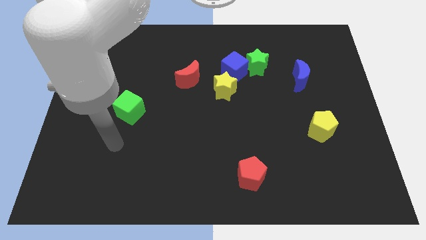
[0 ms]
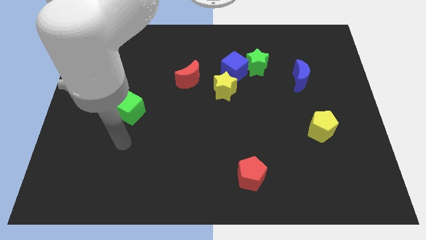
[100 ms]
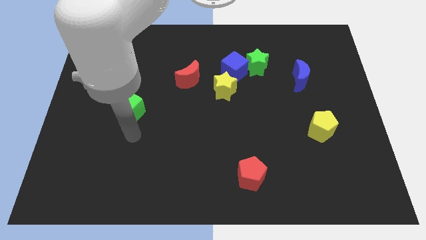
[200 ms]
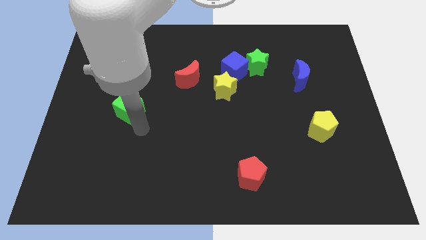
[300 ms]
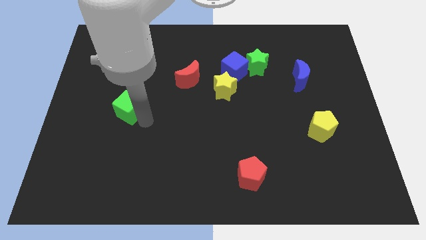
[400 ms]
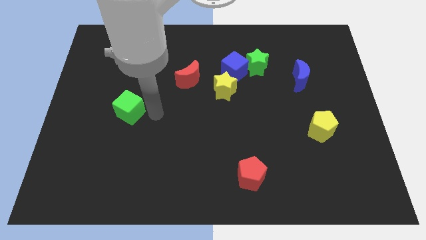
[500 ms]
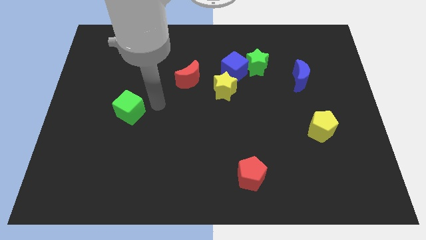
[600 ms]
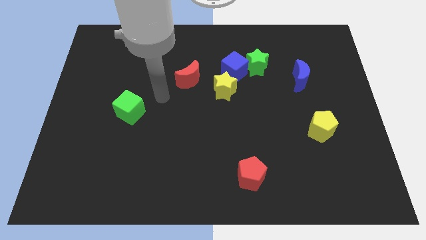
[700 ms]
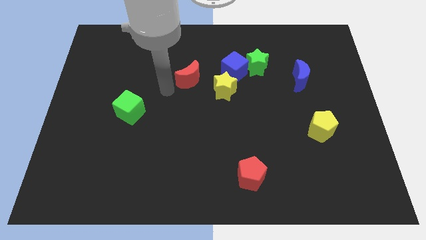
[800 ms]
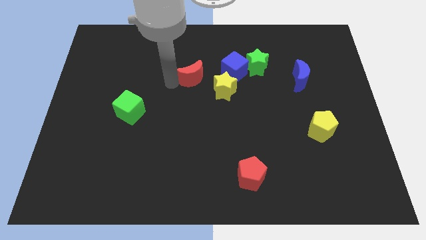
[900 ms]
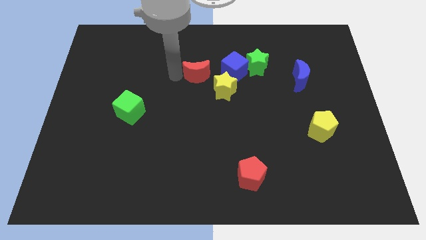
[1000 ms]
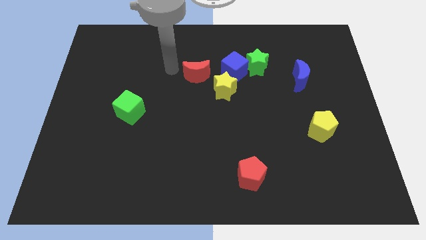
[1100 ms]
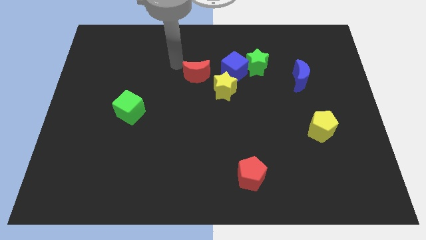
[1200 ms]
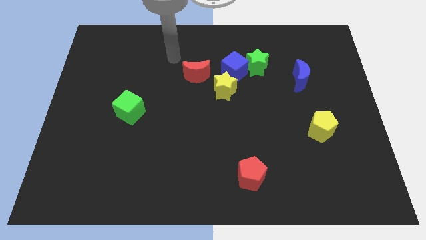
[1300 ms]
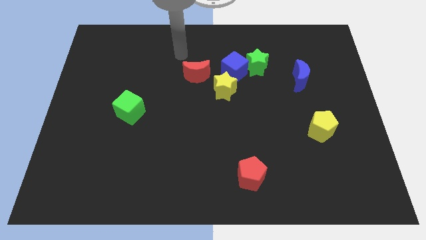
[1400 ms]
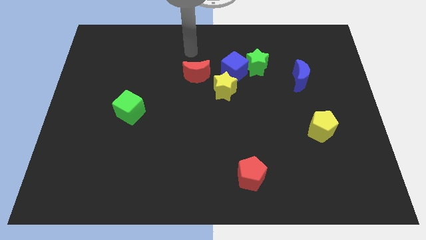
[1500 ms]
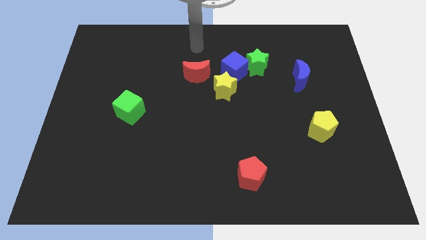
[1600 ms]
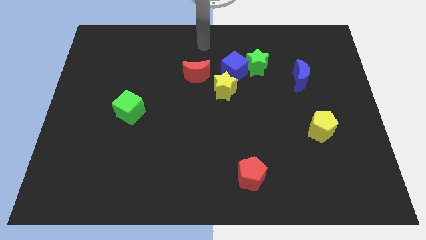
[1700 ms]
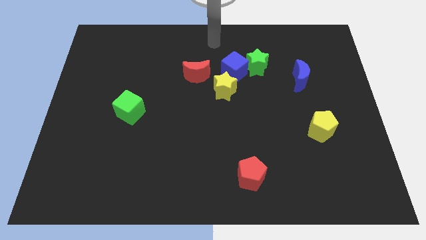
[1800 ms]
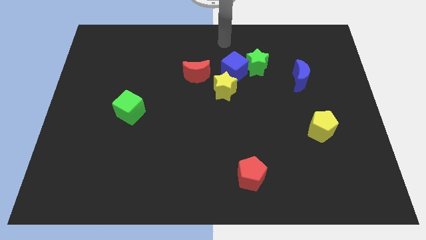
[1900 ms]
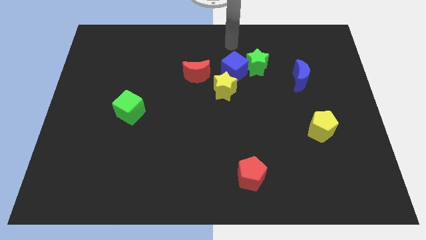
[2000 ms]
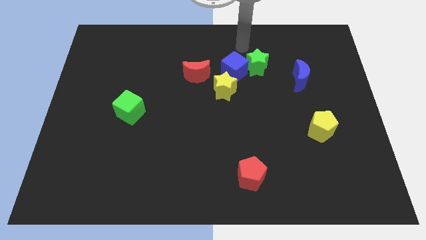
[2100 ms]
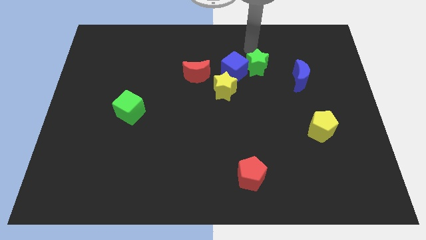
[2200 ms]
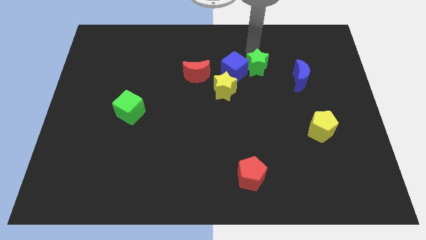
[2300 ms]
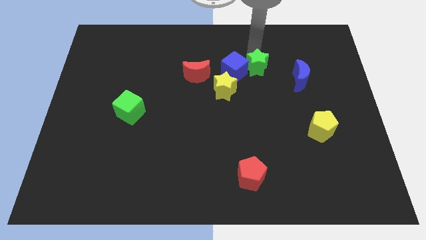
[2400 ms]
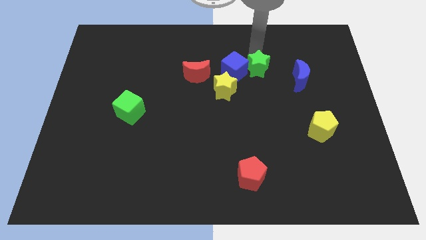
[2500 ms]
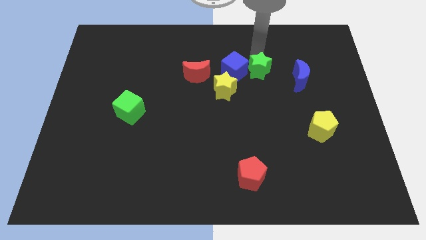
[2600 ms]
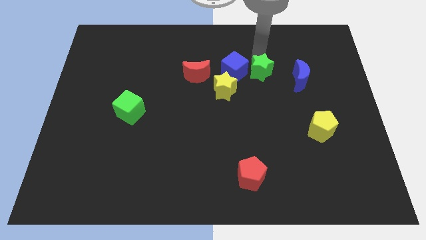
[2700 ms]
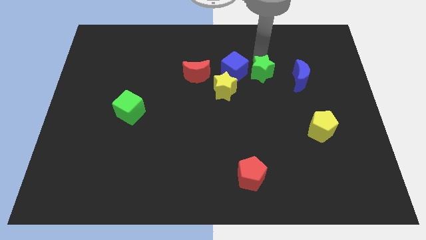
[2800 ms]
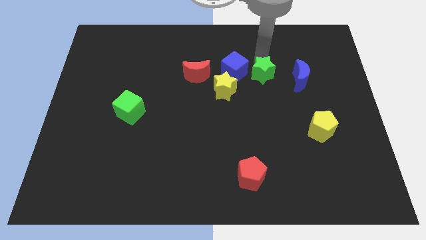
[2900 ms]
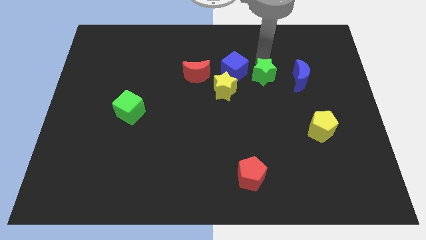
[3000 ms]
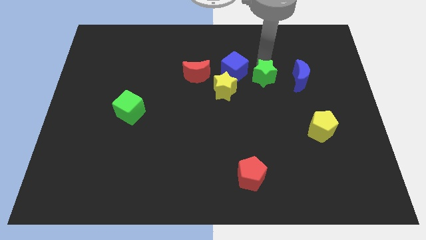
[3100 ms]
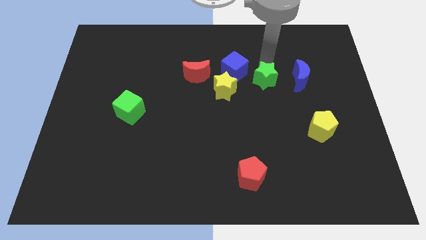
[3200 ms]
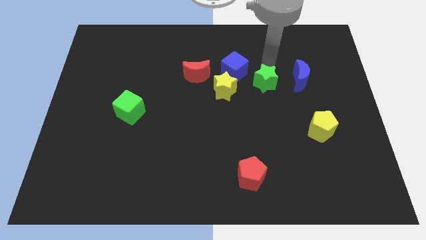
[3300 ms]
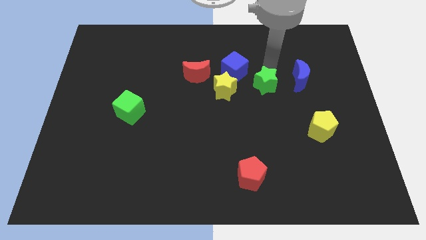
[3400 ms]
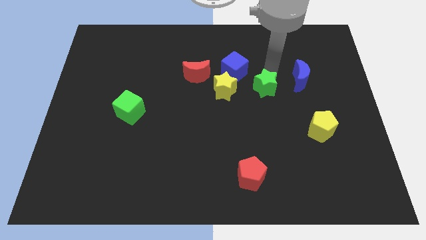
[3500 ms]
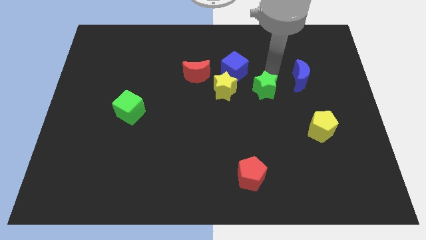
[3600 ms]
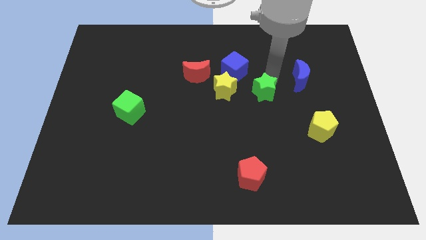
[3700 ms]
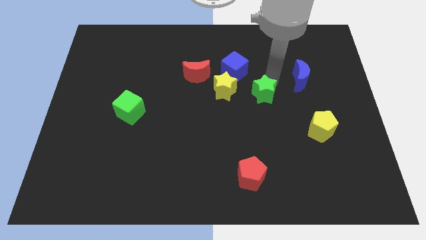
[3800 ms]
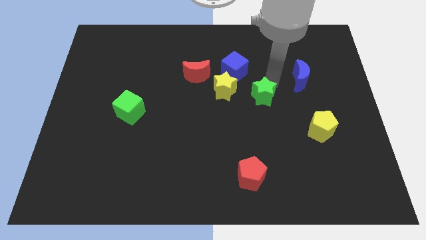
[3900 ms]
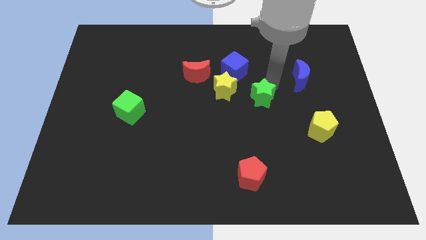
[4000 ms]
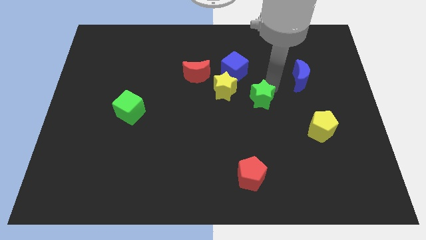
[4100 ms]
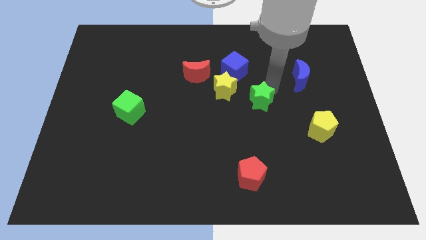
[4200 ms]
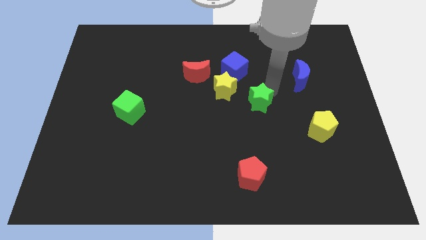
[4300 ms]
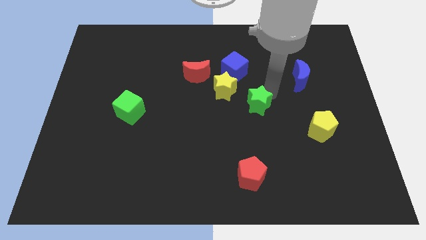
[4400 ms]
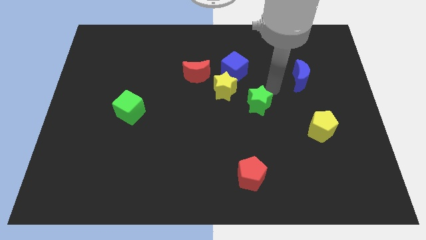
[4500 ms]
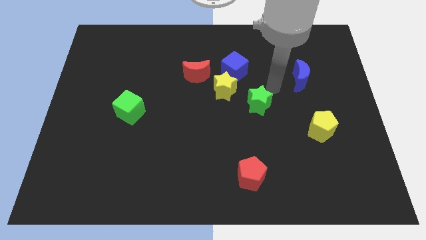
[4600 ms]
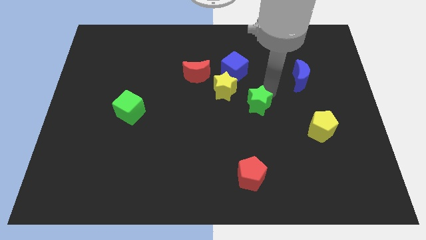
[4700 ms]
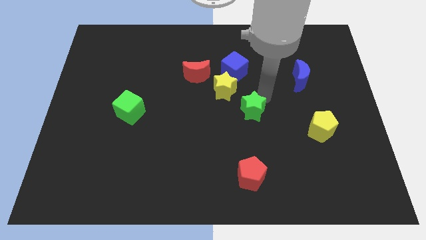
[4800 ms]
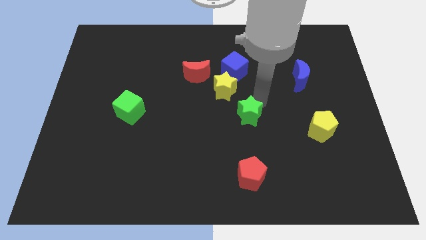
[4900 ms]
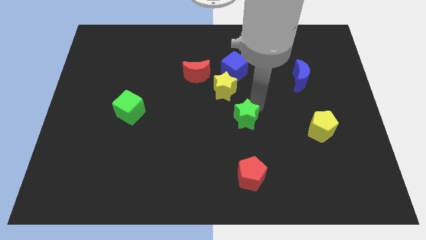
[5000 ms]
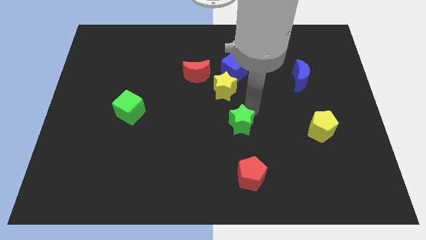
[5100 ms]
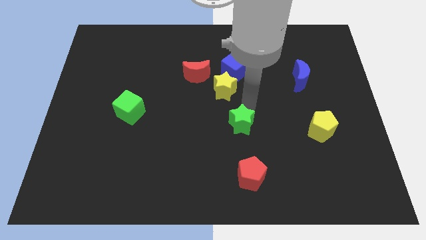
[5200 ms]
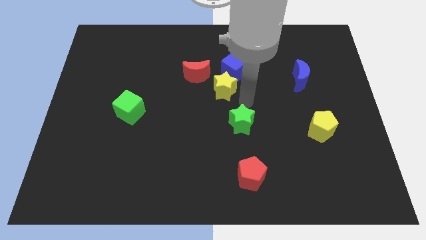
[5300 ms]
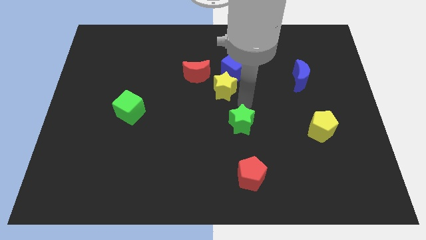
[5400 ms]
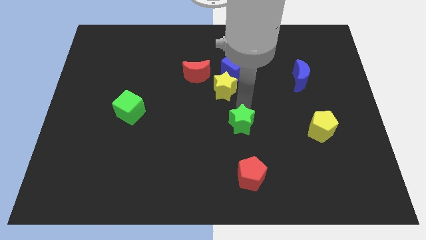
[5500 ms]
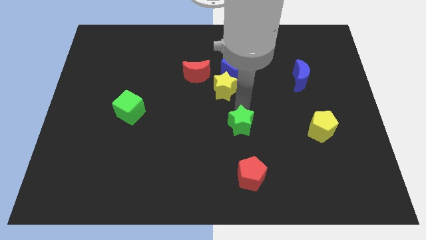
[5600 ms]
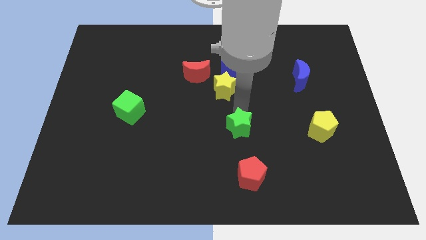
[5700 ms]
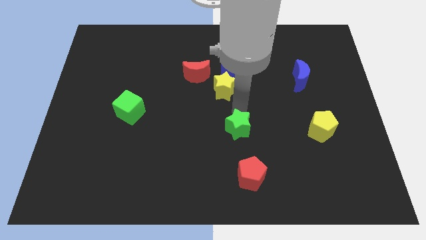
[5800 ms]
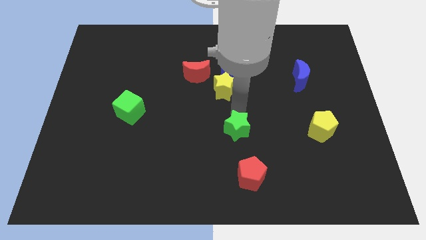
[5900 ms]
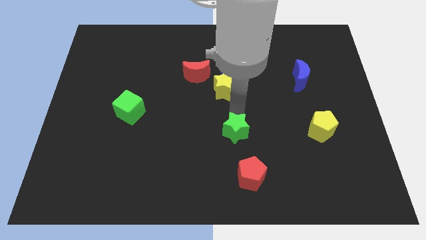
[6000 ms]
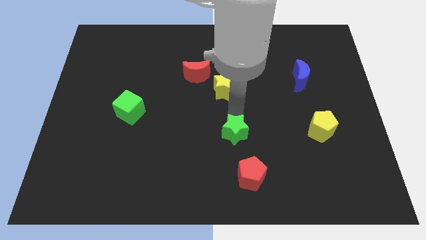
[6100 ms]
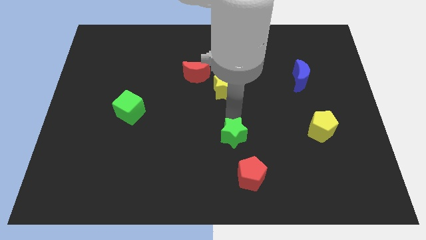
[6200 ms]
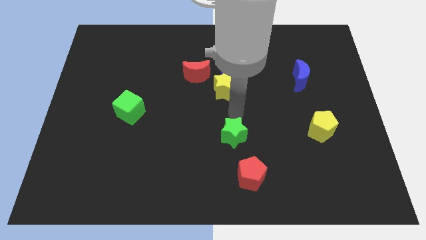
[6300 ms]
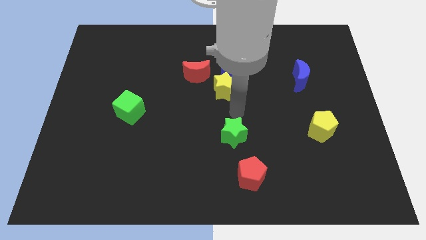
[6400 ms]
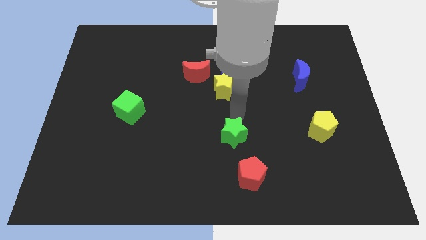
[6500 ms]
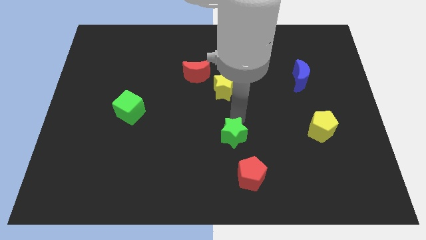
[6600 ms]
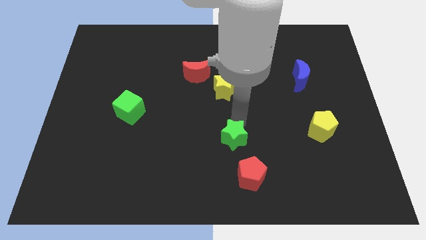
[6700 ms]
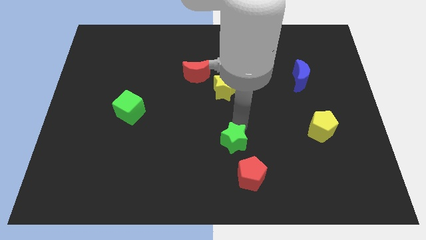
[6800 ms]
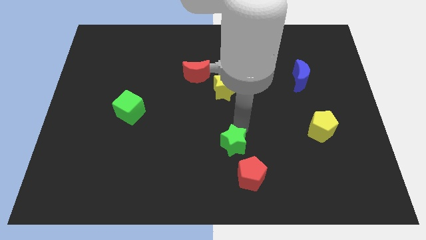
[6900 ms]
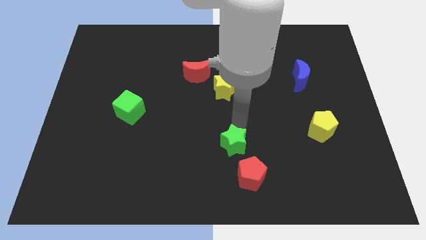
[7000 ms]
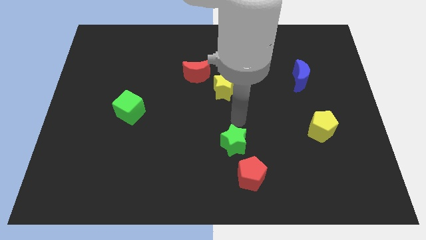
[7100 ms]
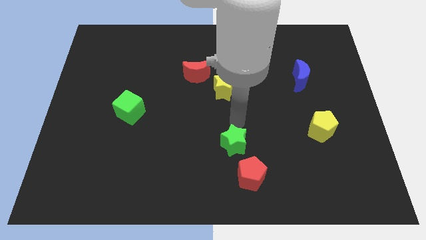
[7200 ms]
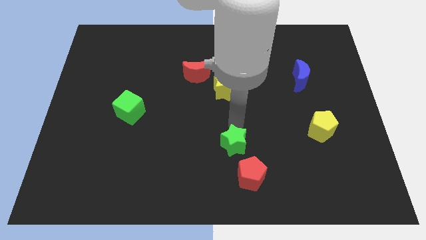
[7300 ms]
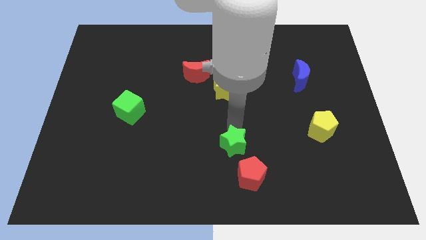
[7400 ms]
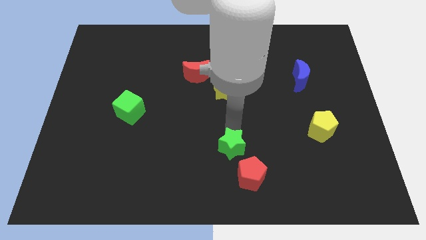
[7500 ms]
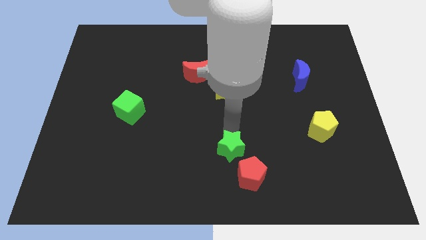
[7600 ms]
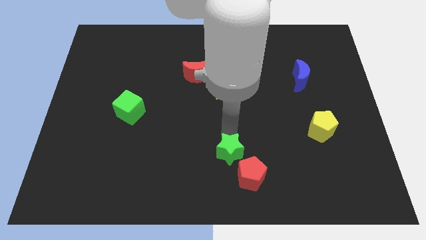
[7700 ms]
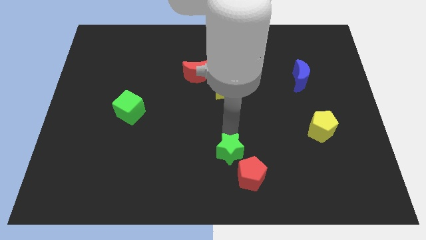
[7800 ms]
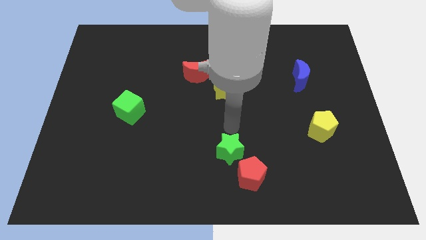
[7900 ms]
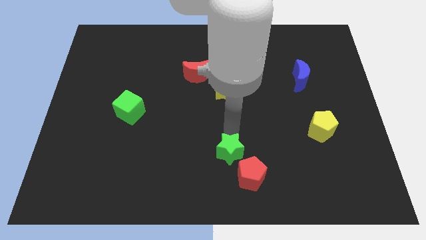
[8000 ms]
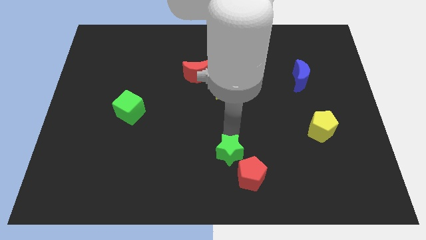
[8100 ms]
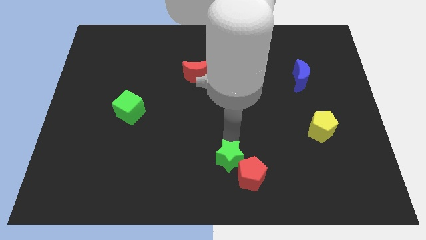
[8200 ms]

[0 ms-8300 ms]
slide the green star to the bottom
